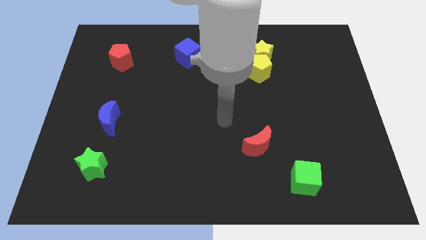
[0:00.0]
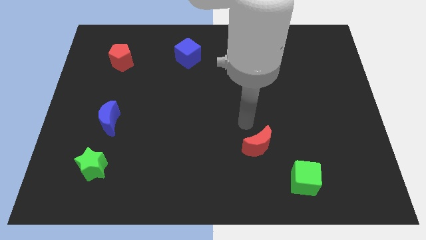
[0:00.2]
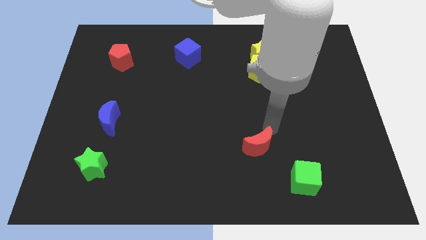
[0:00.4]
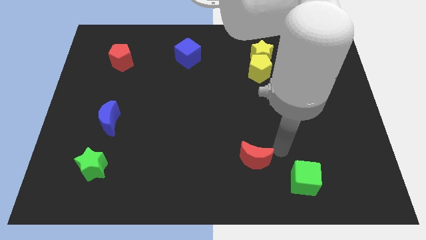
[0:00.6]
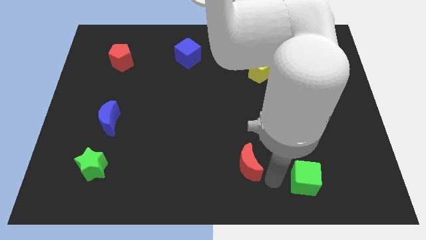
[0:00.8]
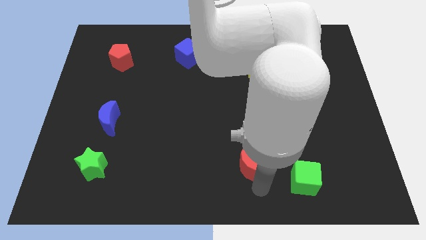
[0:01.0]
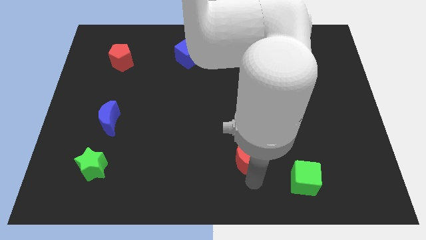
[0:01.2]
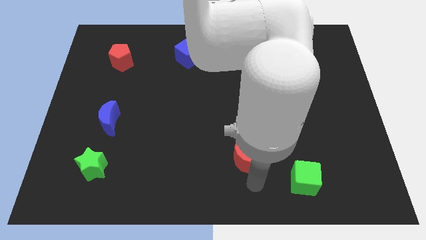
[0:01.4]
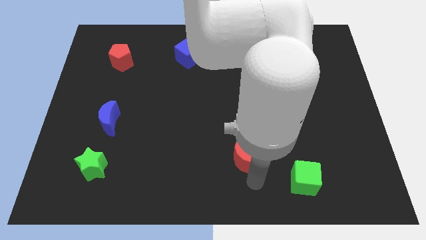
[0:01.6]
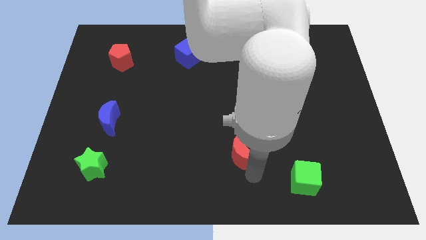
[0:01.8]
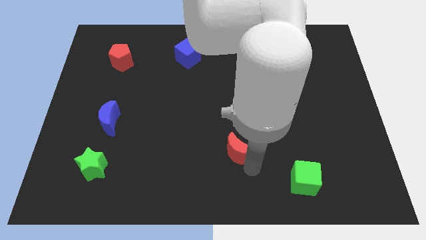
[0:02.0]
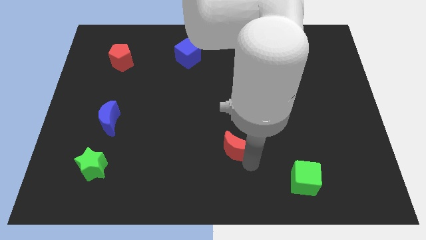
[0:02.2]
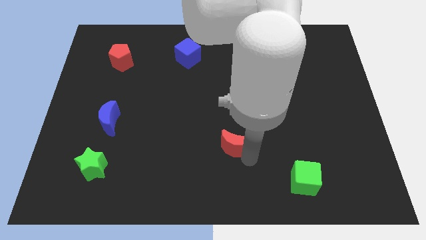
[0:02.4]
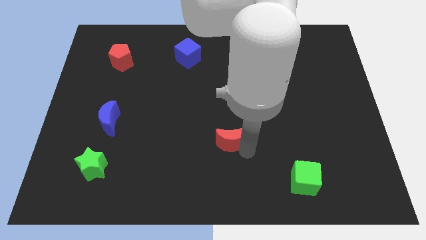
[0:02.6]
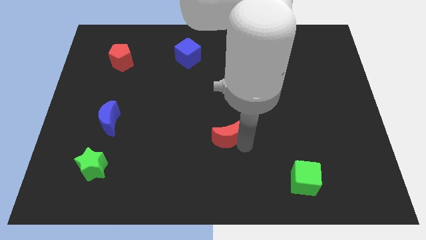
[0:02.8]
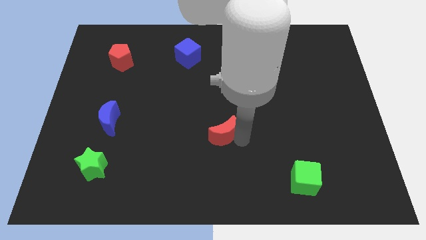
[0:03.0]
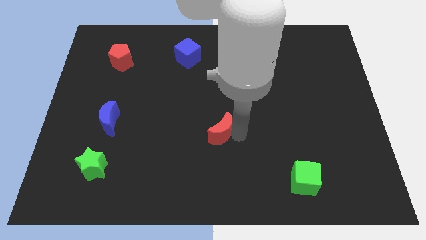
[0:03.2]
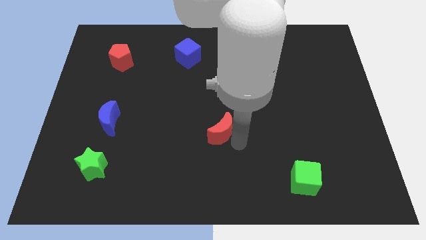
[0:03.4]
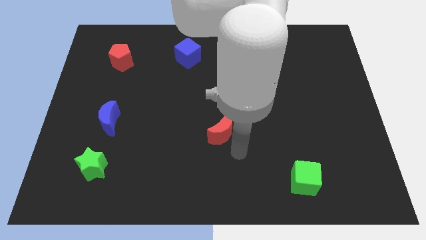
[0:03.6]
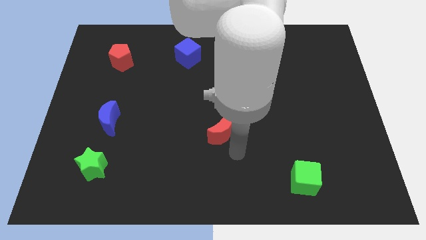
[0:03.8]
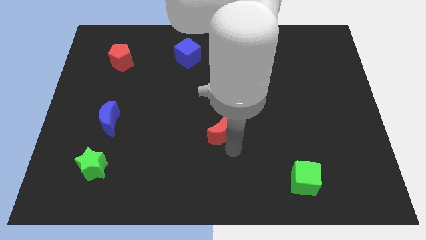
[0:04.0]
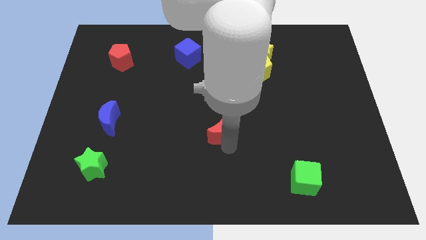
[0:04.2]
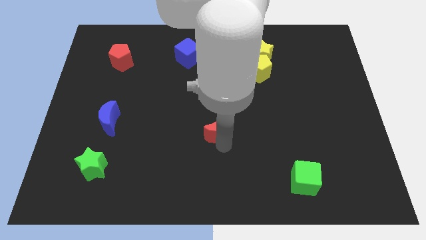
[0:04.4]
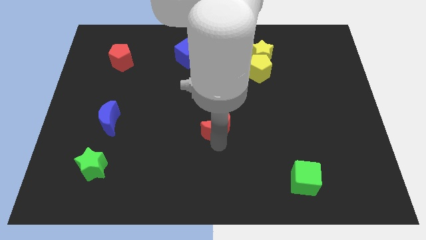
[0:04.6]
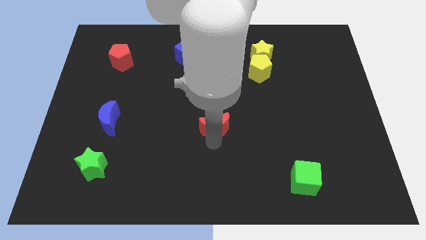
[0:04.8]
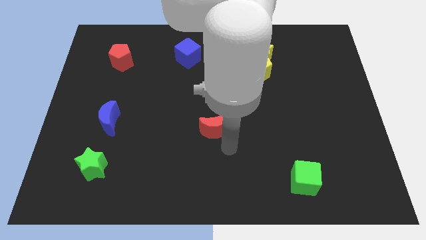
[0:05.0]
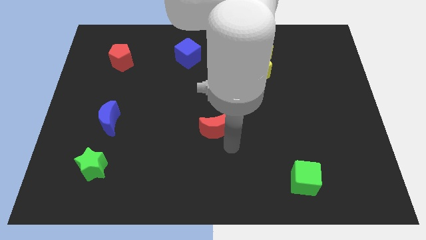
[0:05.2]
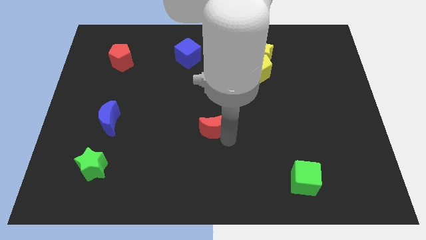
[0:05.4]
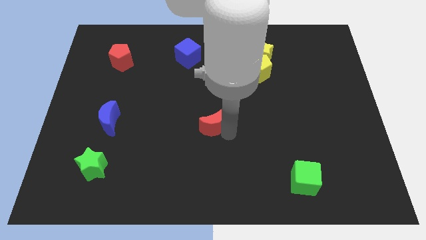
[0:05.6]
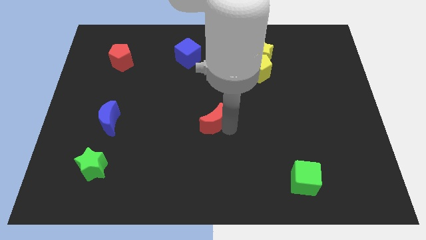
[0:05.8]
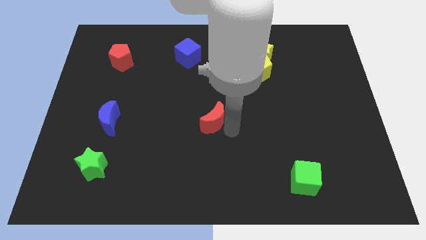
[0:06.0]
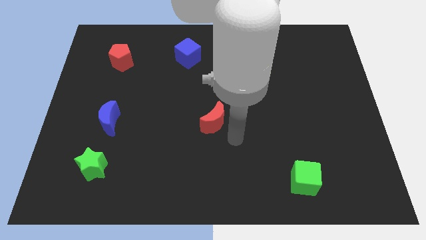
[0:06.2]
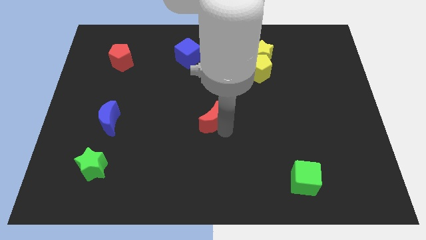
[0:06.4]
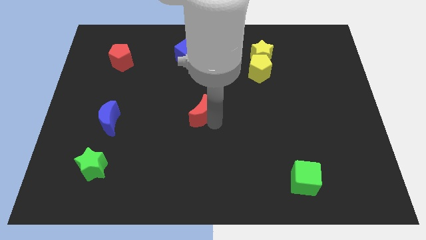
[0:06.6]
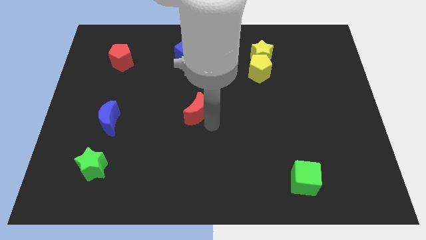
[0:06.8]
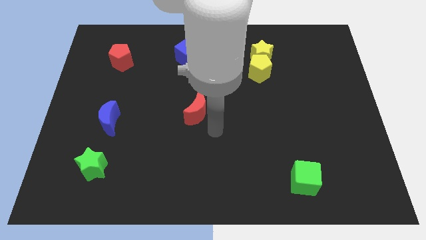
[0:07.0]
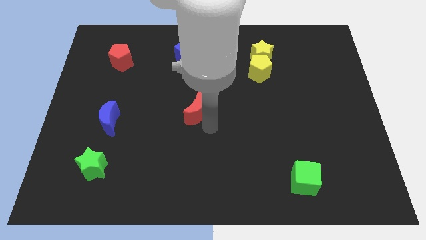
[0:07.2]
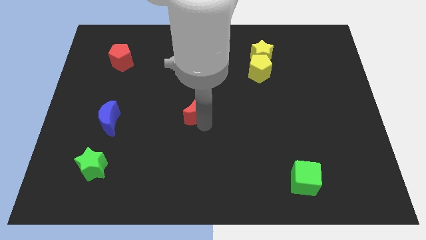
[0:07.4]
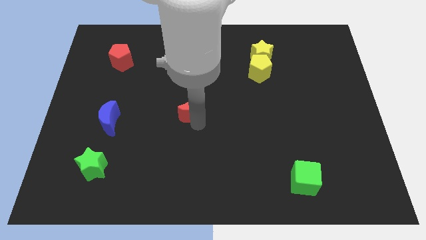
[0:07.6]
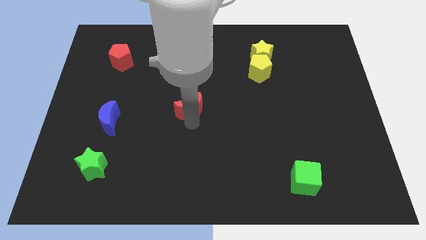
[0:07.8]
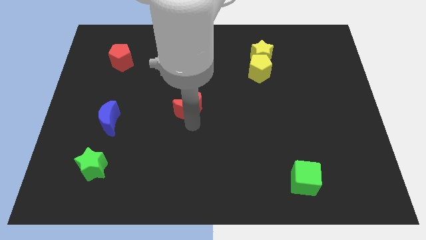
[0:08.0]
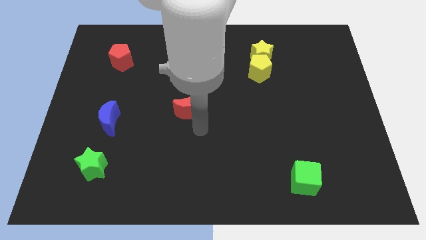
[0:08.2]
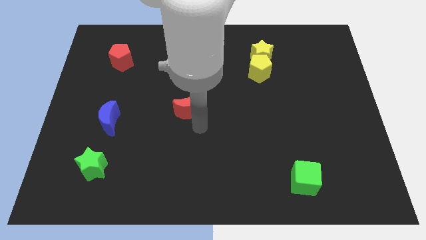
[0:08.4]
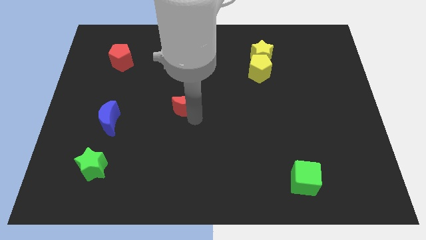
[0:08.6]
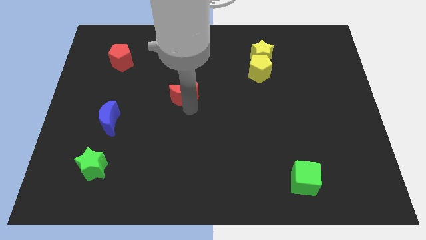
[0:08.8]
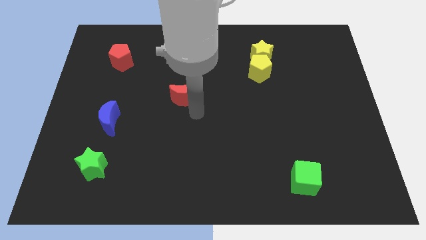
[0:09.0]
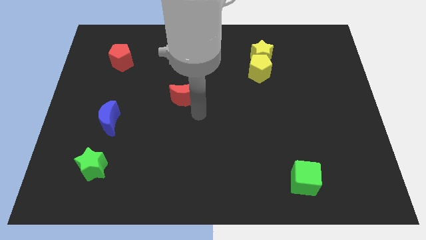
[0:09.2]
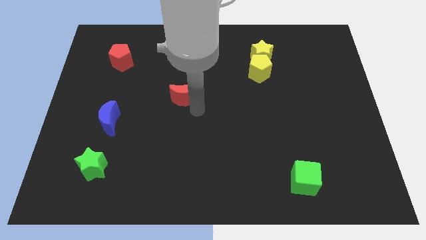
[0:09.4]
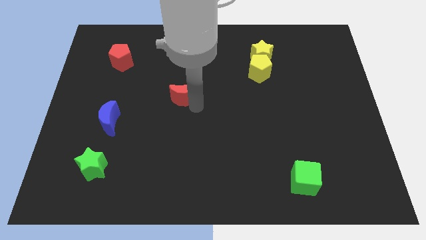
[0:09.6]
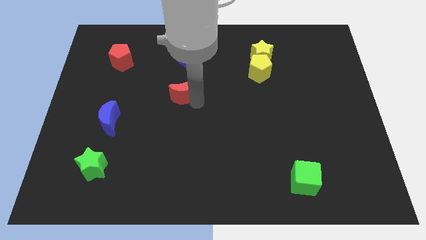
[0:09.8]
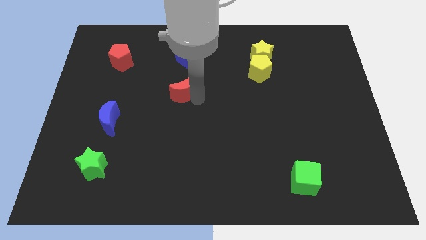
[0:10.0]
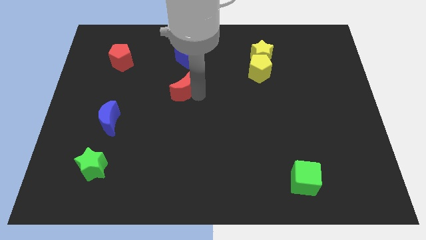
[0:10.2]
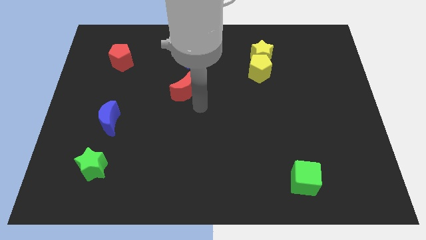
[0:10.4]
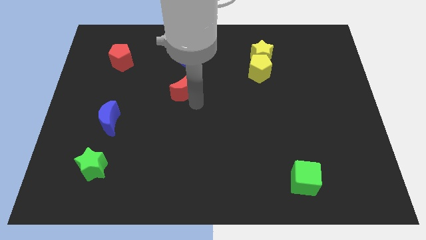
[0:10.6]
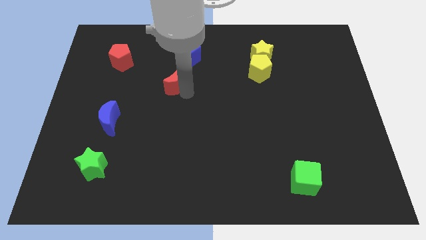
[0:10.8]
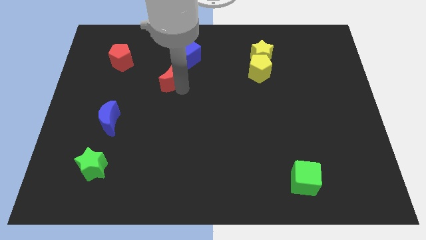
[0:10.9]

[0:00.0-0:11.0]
move the red moon diagonally down and to the left of the blue cube

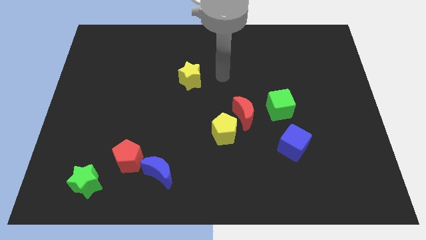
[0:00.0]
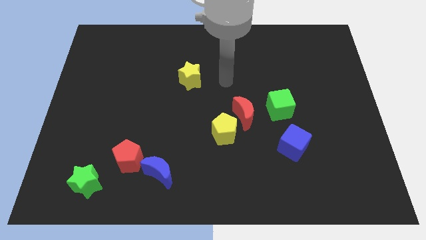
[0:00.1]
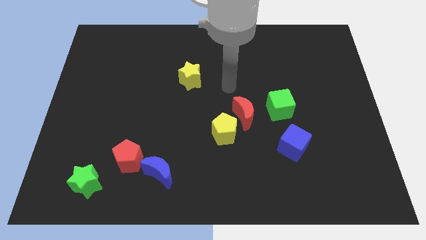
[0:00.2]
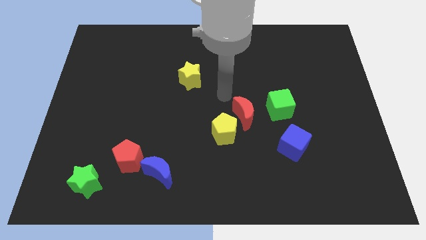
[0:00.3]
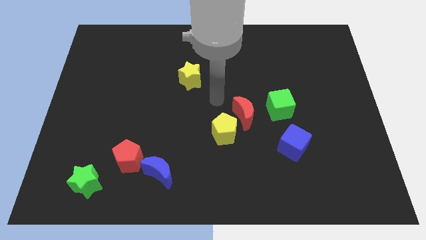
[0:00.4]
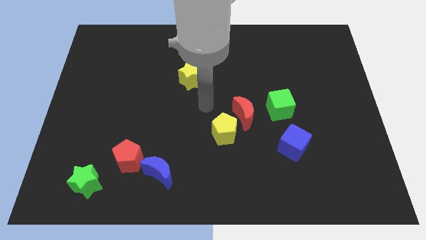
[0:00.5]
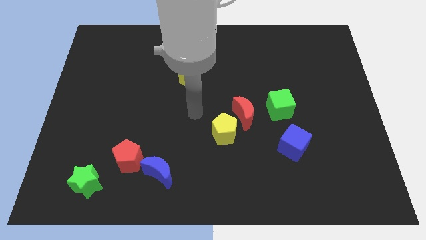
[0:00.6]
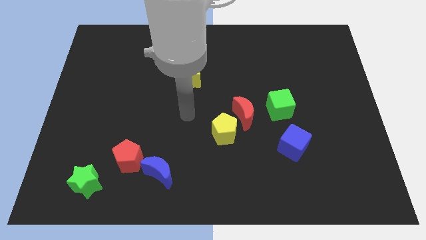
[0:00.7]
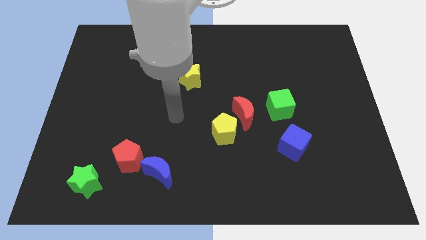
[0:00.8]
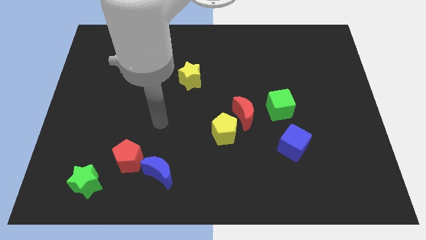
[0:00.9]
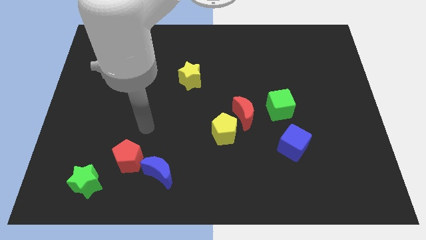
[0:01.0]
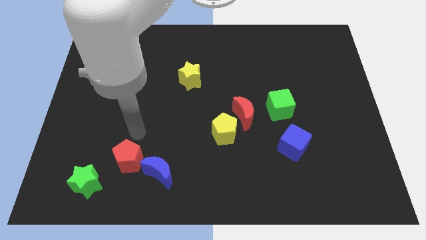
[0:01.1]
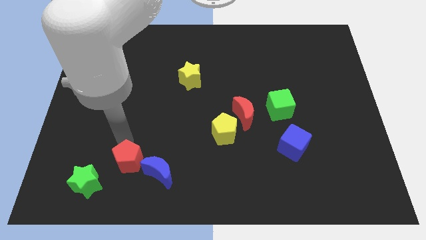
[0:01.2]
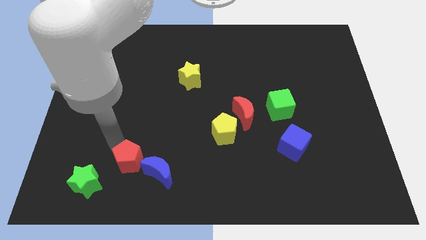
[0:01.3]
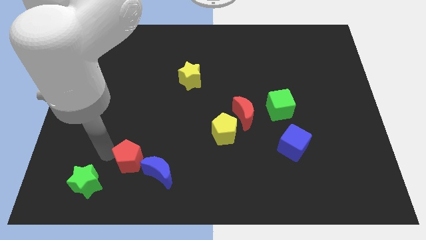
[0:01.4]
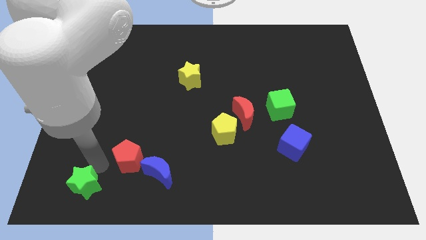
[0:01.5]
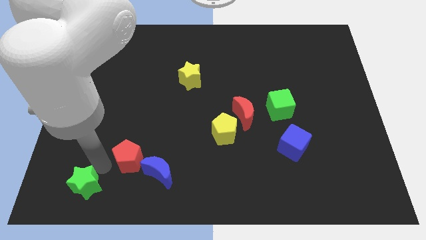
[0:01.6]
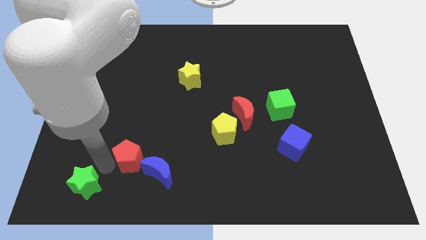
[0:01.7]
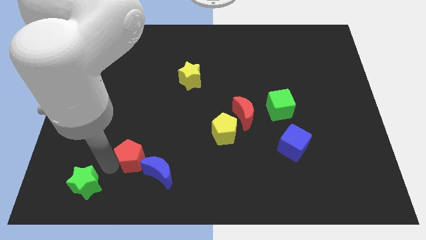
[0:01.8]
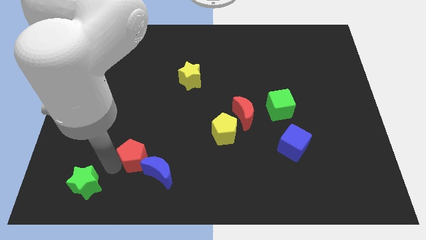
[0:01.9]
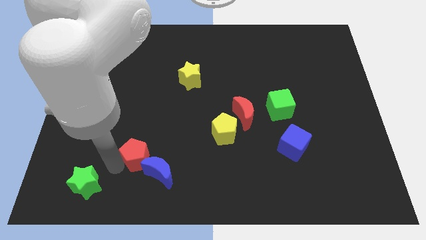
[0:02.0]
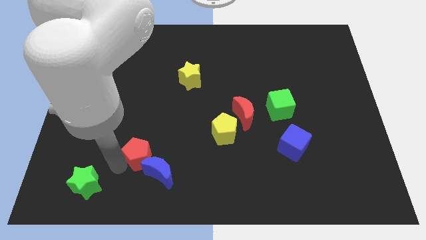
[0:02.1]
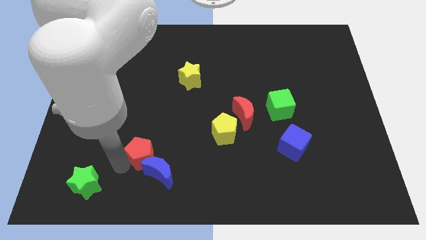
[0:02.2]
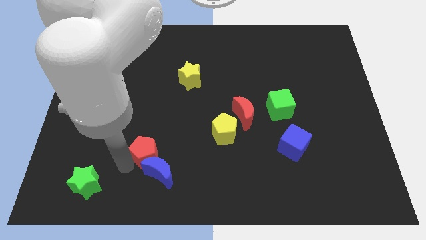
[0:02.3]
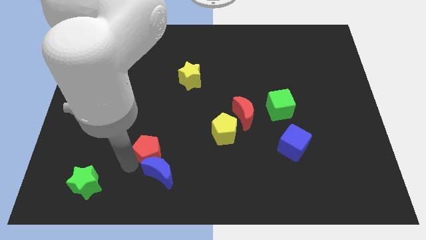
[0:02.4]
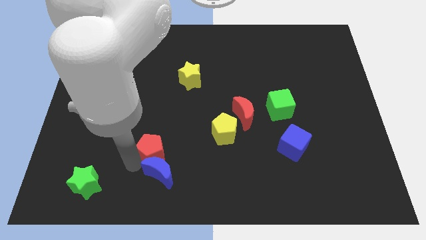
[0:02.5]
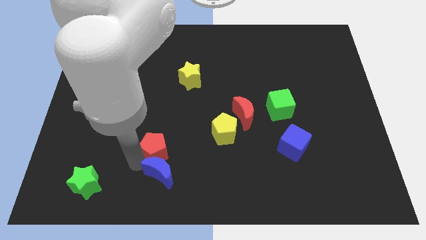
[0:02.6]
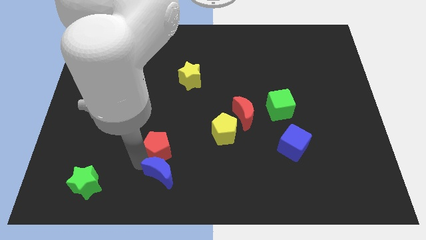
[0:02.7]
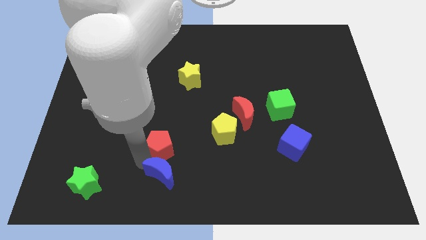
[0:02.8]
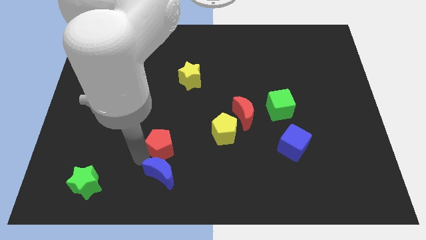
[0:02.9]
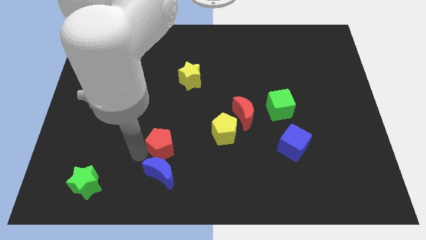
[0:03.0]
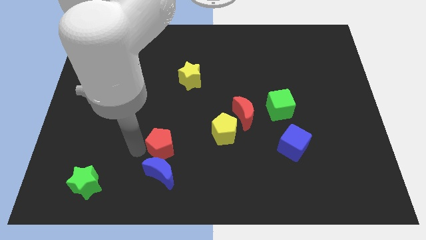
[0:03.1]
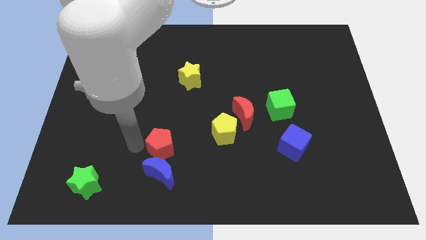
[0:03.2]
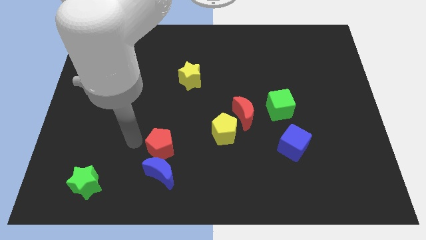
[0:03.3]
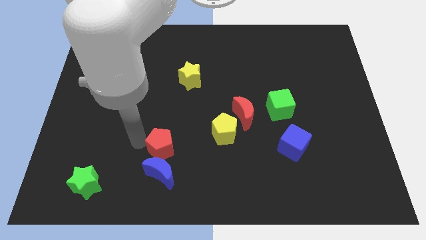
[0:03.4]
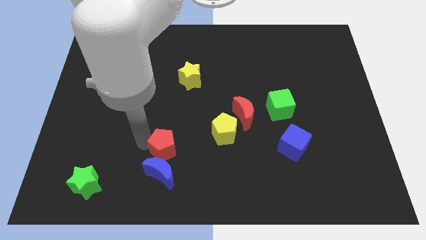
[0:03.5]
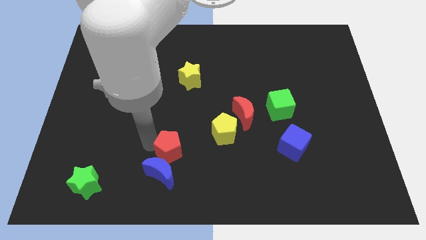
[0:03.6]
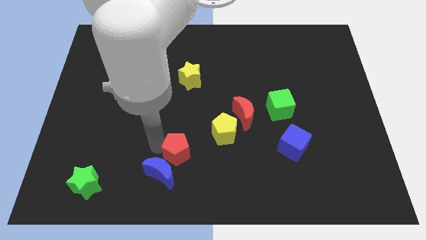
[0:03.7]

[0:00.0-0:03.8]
push the red pentagon to the bottom left side of the yellow pentagon
